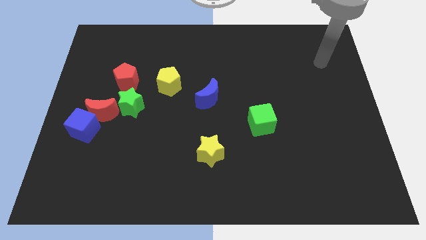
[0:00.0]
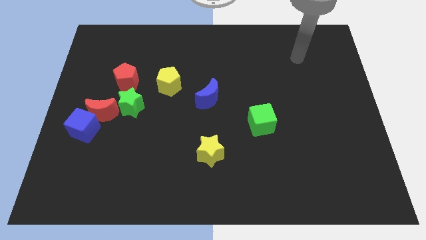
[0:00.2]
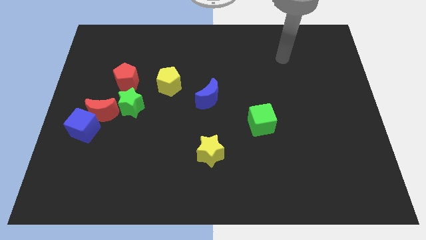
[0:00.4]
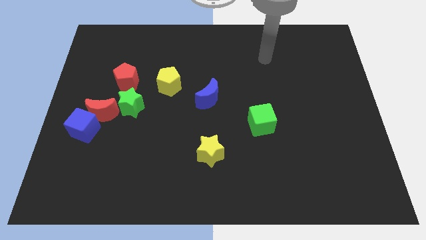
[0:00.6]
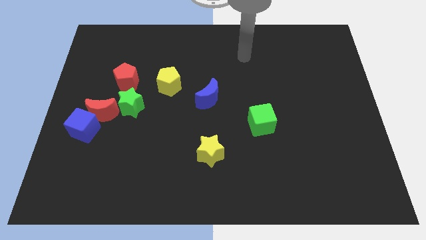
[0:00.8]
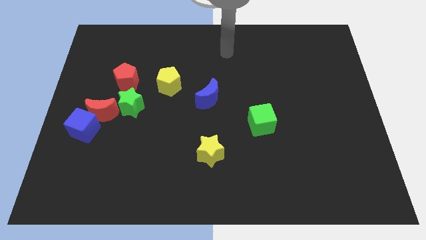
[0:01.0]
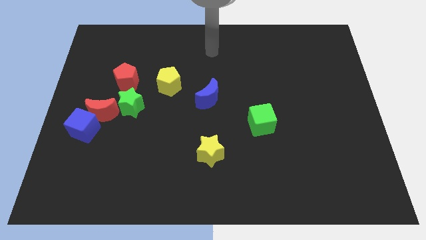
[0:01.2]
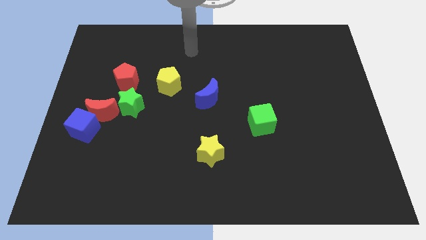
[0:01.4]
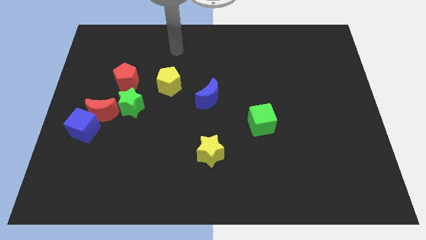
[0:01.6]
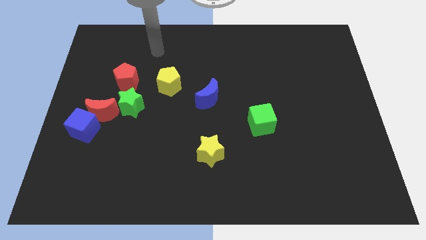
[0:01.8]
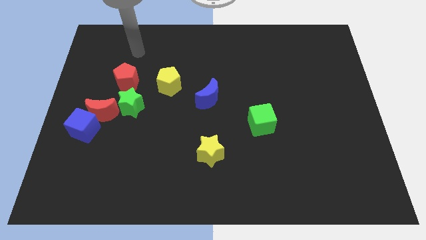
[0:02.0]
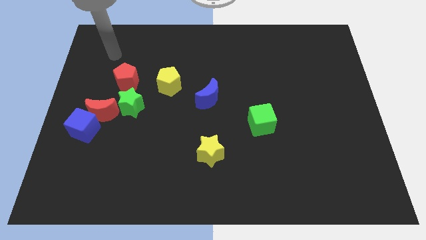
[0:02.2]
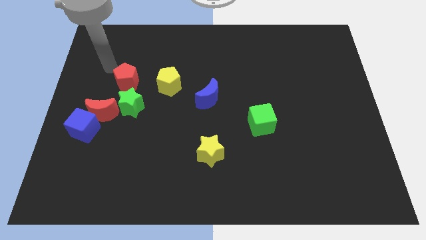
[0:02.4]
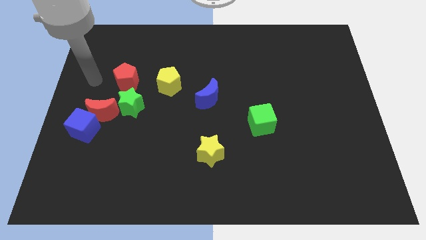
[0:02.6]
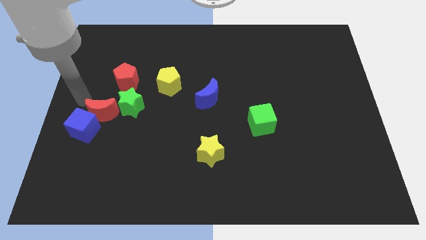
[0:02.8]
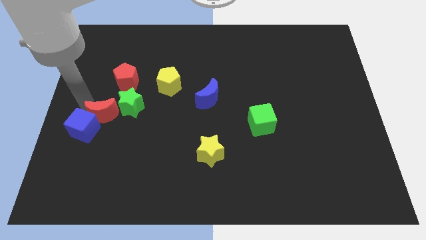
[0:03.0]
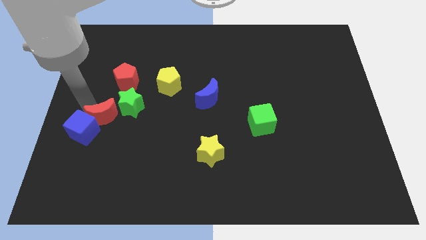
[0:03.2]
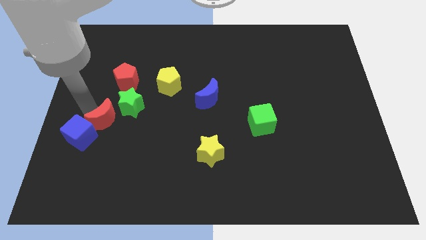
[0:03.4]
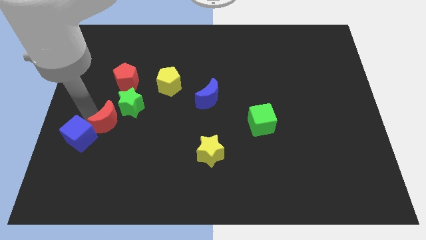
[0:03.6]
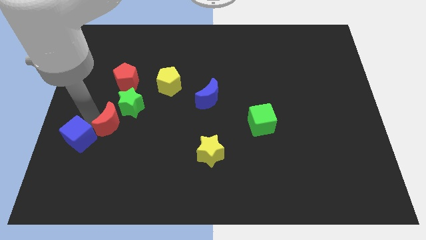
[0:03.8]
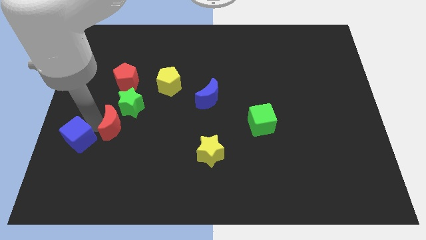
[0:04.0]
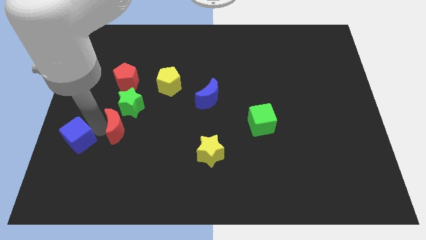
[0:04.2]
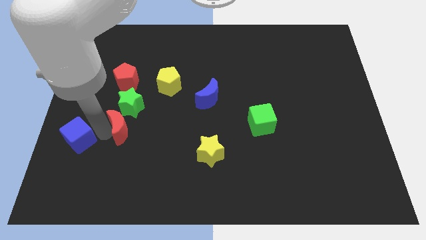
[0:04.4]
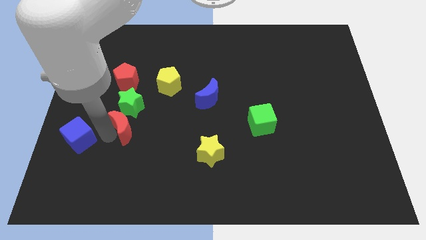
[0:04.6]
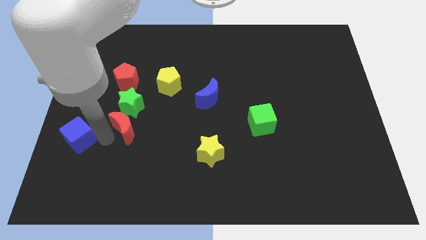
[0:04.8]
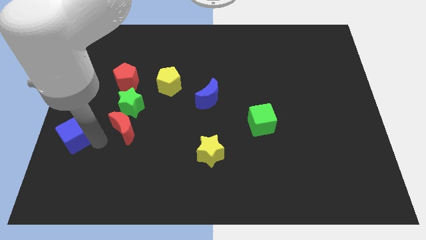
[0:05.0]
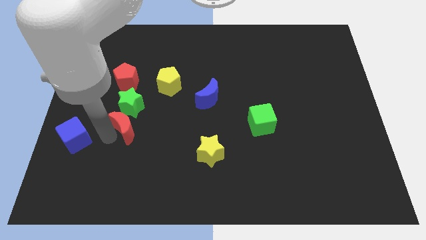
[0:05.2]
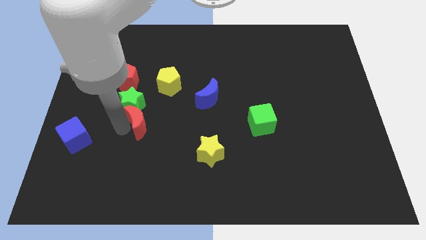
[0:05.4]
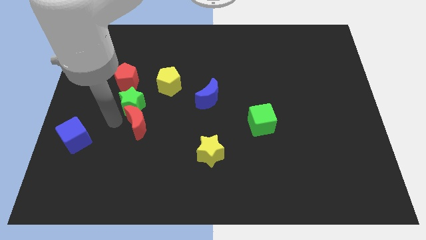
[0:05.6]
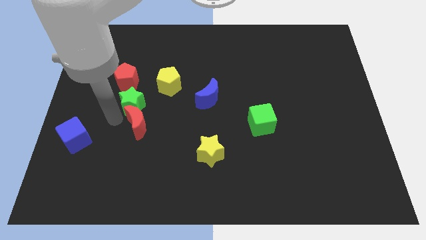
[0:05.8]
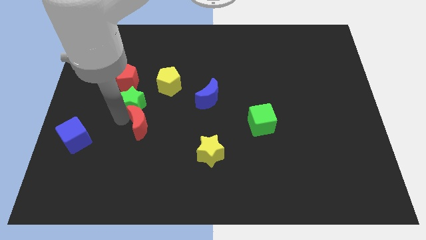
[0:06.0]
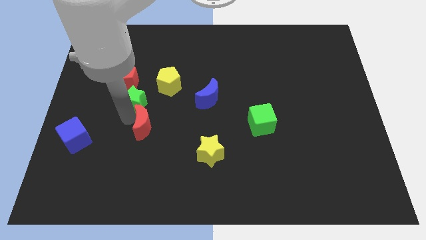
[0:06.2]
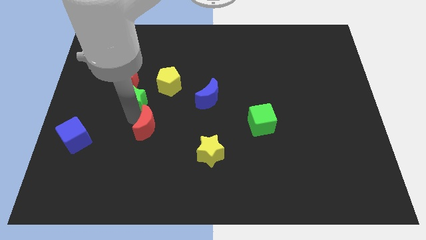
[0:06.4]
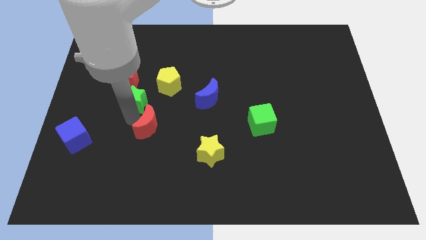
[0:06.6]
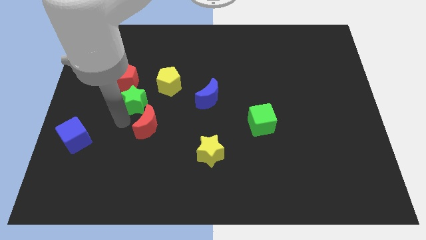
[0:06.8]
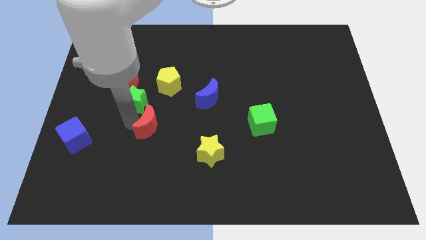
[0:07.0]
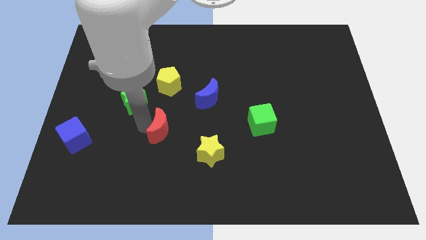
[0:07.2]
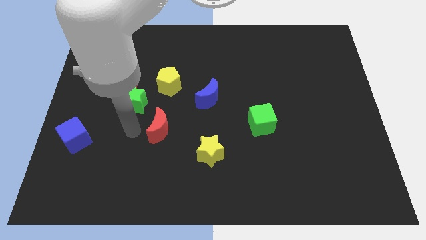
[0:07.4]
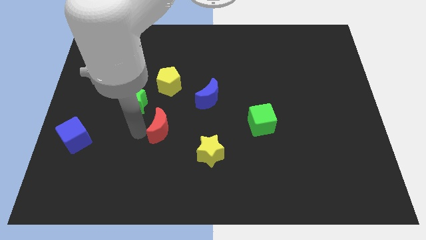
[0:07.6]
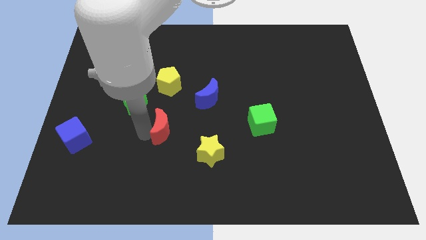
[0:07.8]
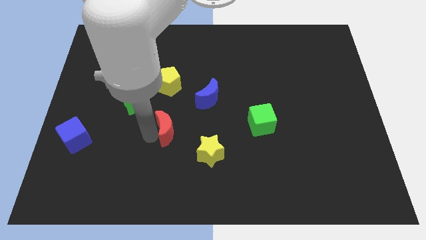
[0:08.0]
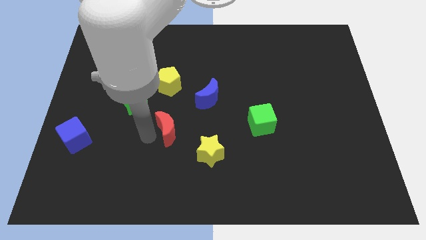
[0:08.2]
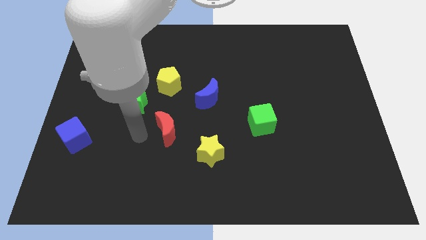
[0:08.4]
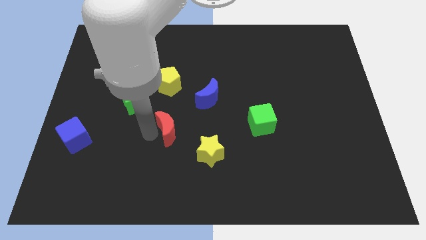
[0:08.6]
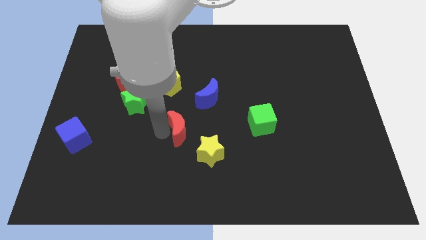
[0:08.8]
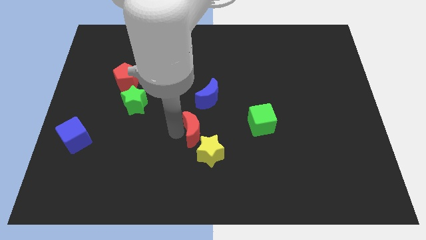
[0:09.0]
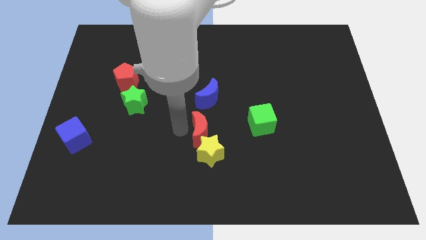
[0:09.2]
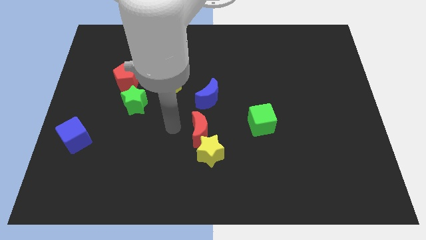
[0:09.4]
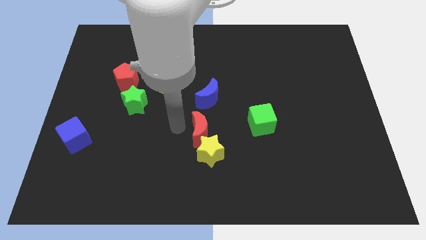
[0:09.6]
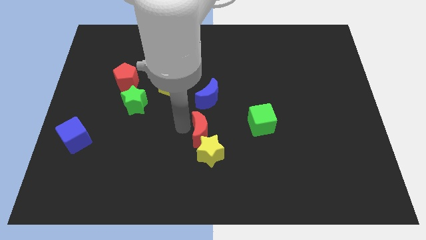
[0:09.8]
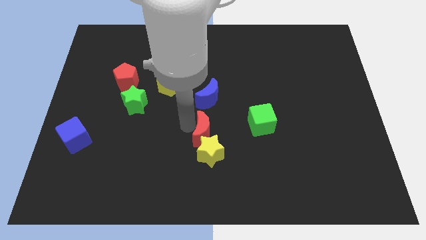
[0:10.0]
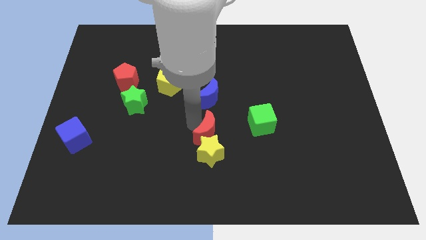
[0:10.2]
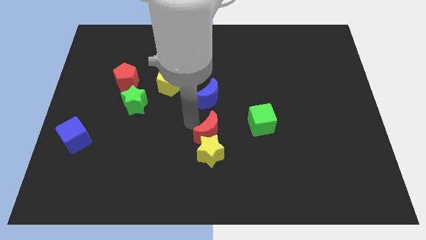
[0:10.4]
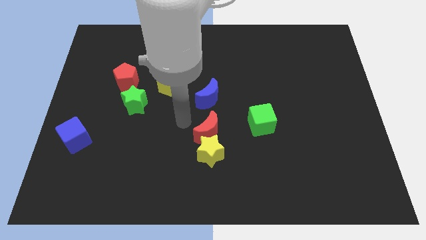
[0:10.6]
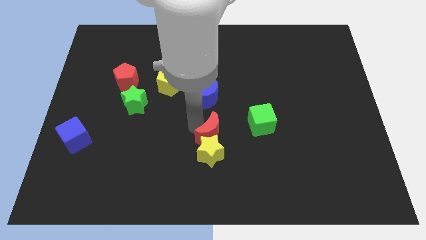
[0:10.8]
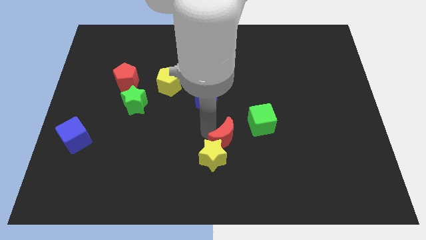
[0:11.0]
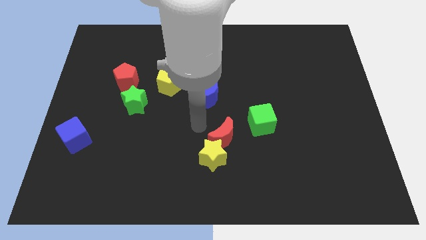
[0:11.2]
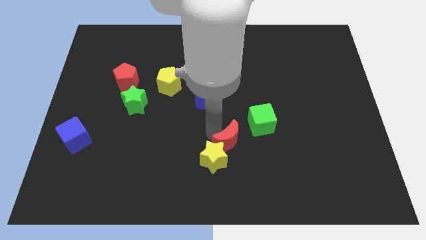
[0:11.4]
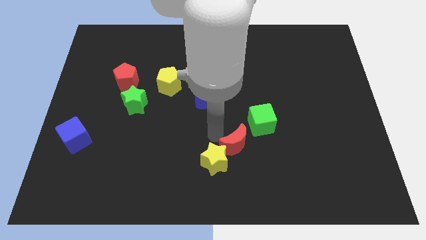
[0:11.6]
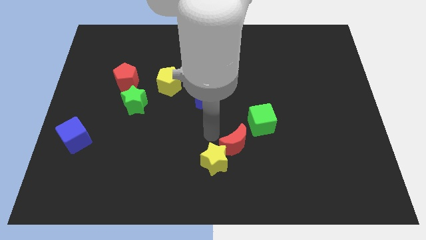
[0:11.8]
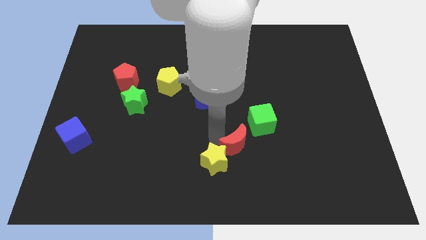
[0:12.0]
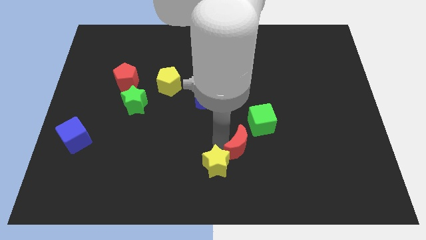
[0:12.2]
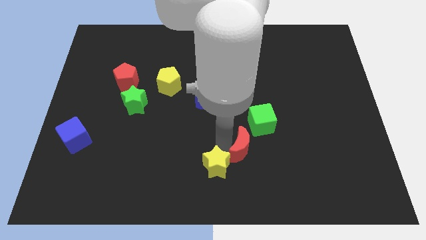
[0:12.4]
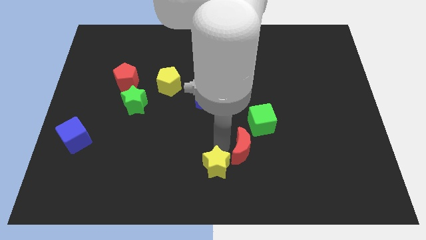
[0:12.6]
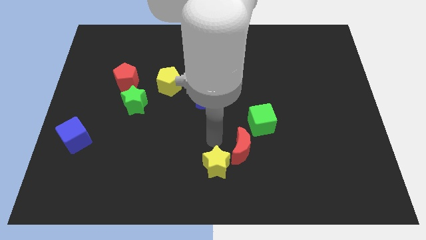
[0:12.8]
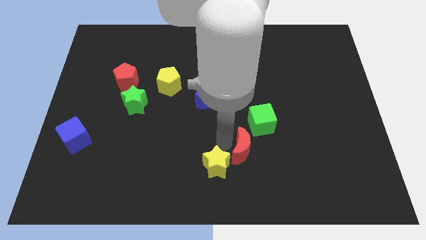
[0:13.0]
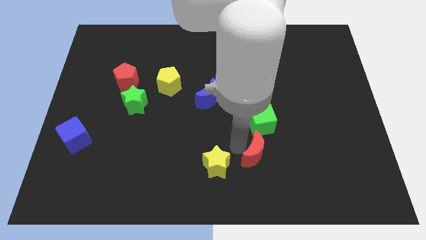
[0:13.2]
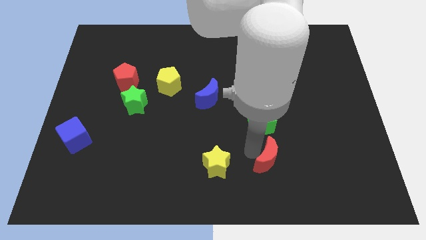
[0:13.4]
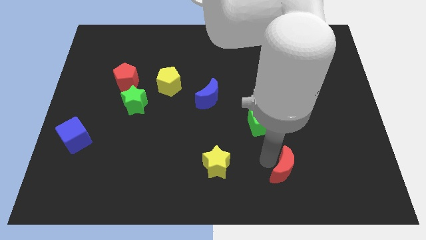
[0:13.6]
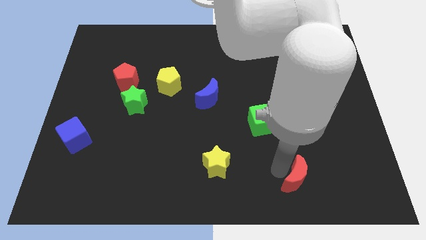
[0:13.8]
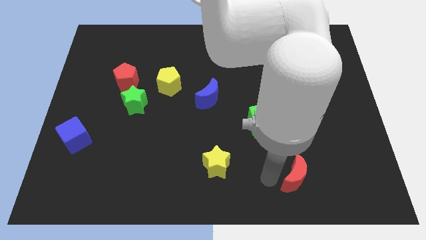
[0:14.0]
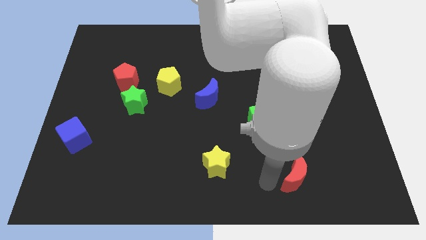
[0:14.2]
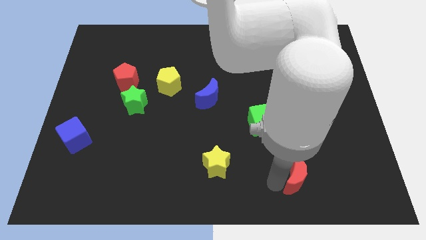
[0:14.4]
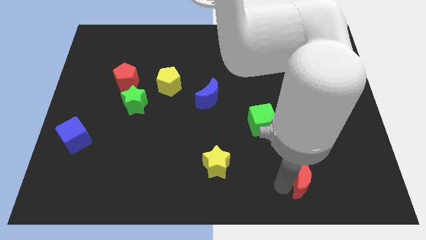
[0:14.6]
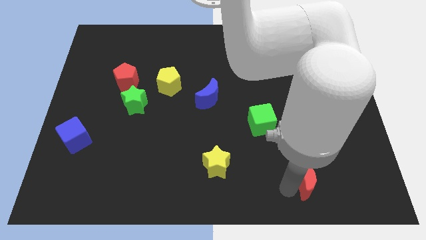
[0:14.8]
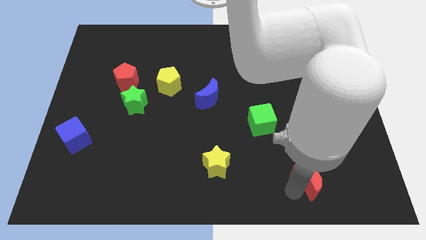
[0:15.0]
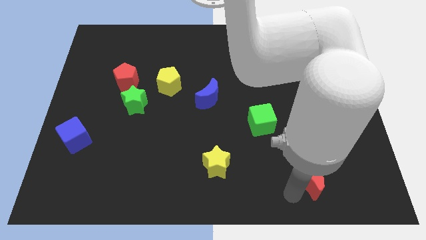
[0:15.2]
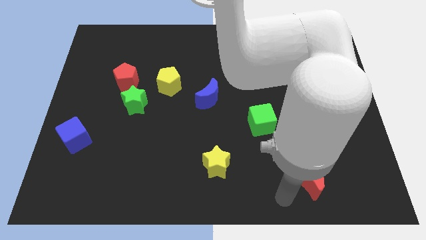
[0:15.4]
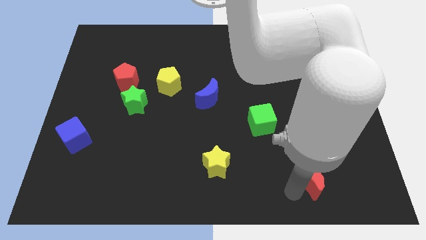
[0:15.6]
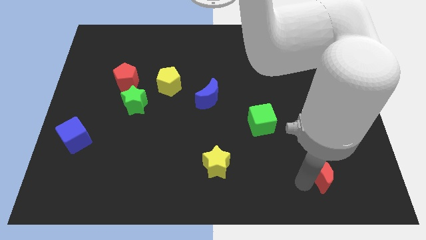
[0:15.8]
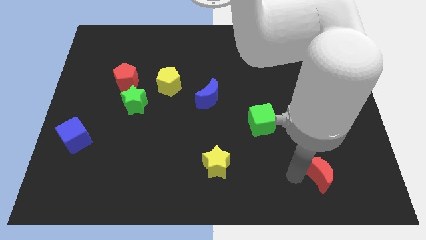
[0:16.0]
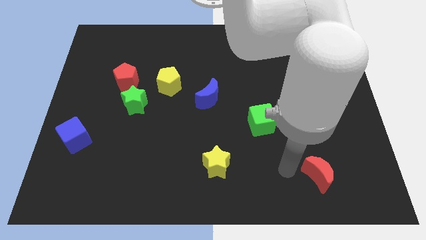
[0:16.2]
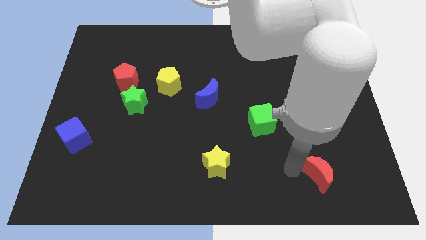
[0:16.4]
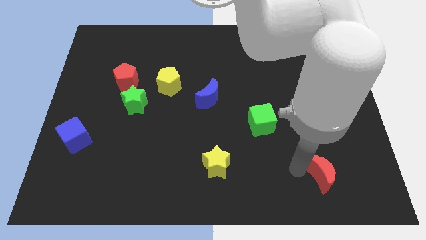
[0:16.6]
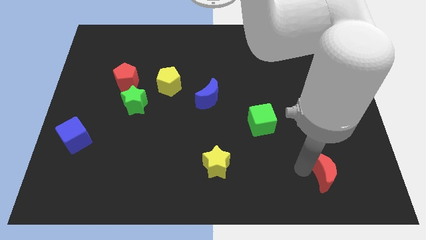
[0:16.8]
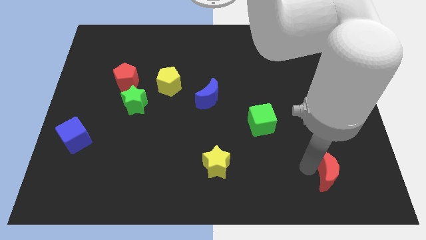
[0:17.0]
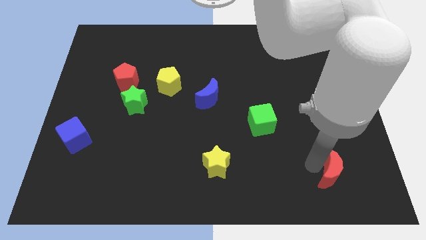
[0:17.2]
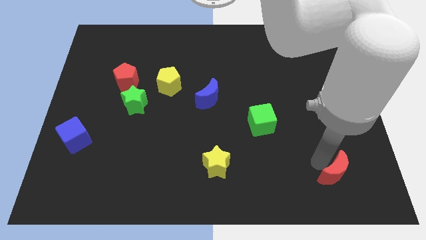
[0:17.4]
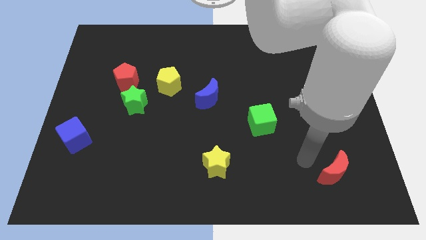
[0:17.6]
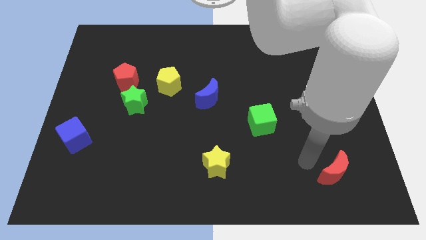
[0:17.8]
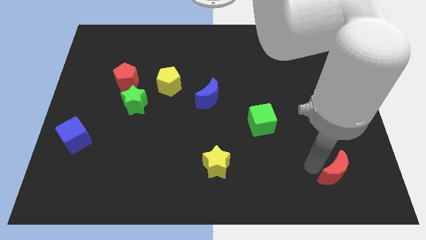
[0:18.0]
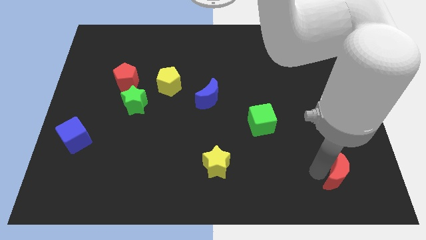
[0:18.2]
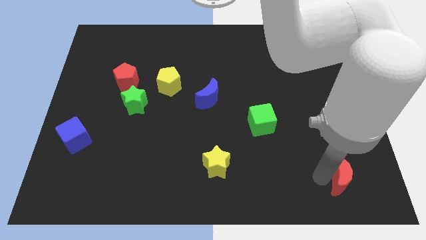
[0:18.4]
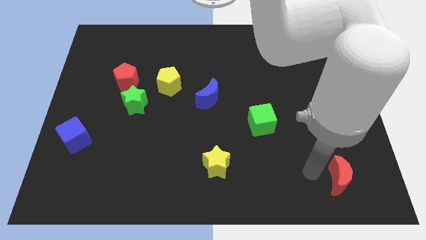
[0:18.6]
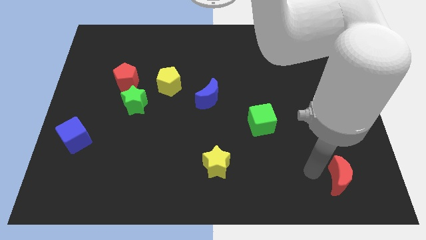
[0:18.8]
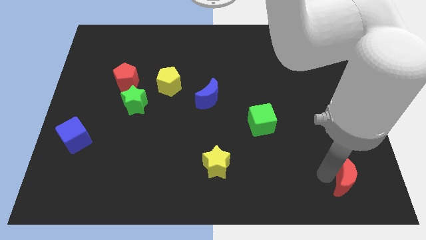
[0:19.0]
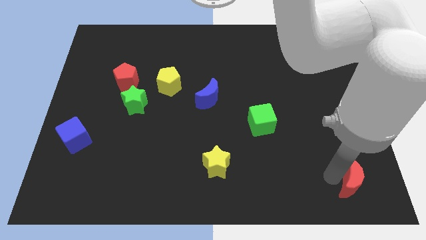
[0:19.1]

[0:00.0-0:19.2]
push the red moon to the lower right corner
